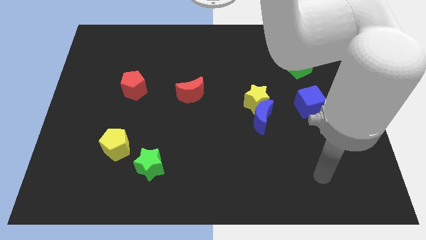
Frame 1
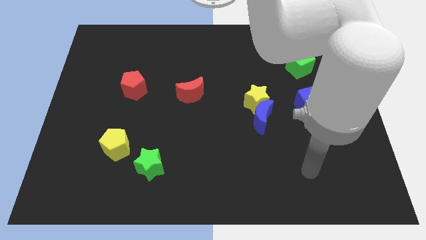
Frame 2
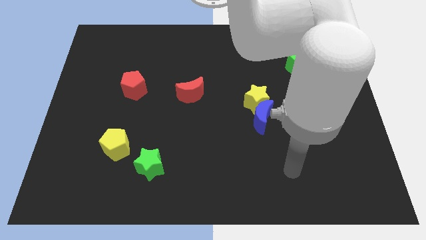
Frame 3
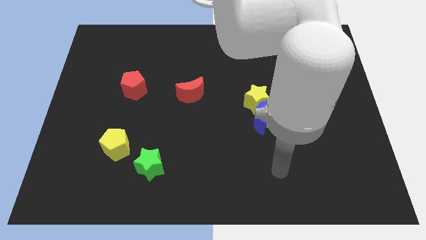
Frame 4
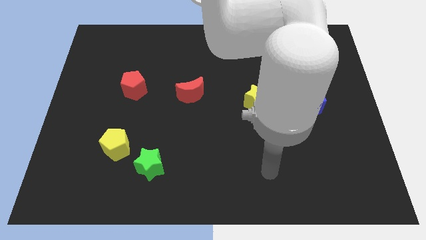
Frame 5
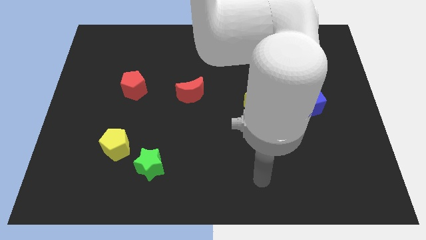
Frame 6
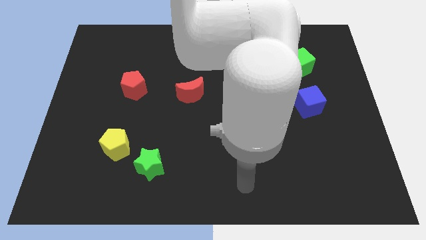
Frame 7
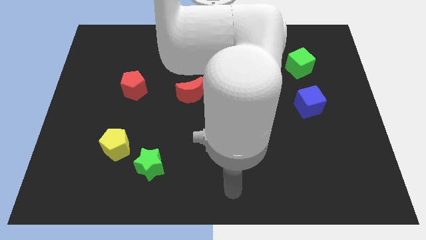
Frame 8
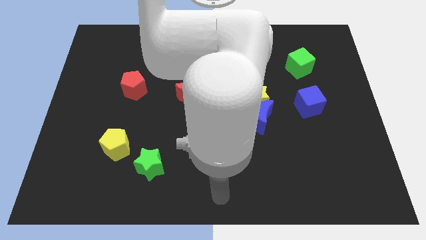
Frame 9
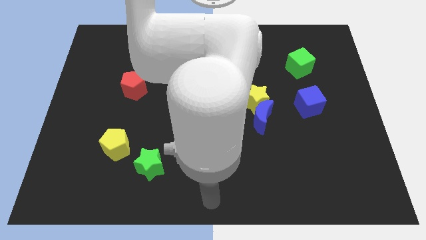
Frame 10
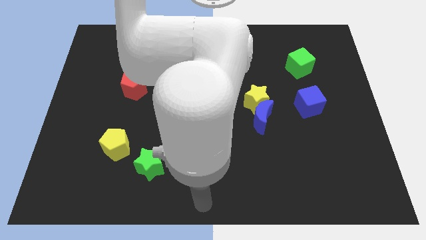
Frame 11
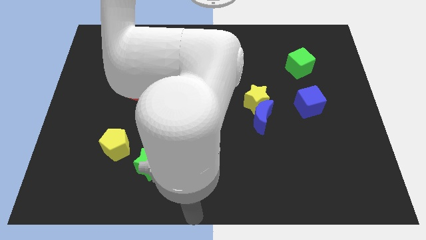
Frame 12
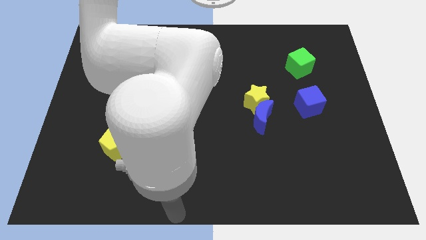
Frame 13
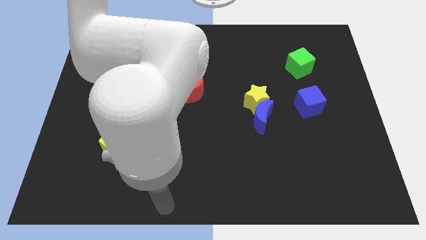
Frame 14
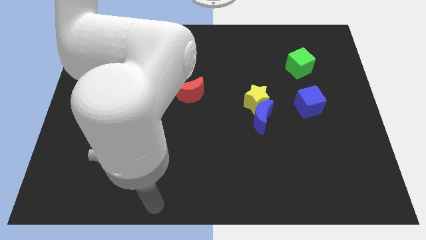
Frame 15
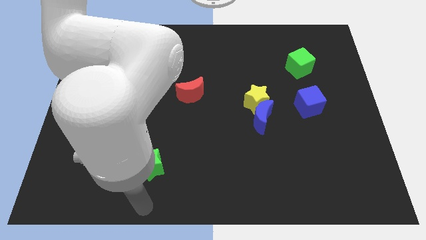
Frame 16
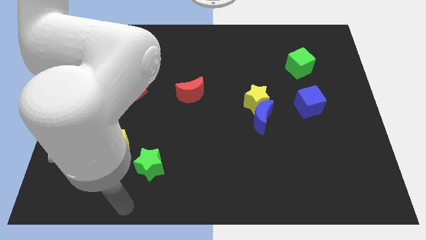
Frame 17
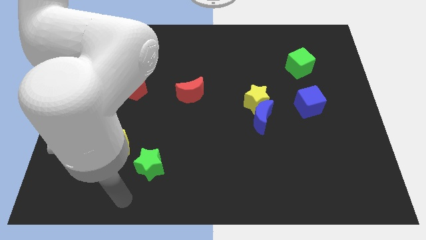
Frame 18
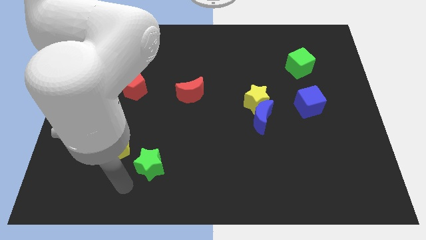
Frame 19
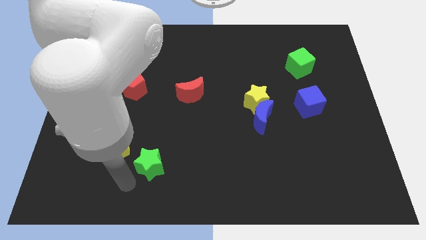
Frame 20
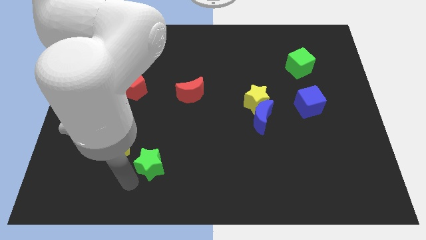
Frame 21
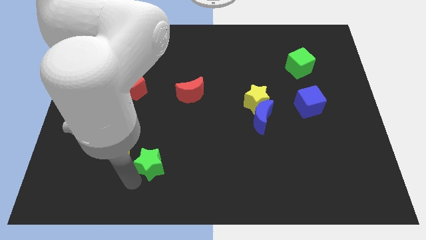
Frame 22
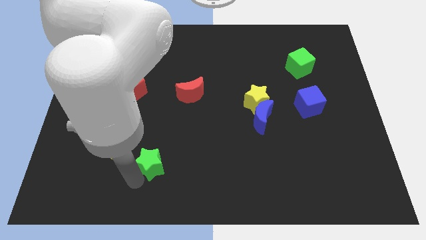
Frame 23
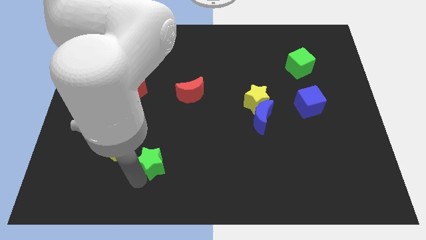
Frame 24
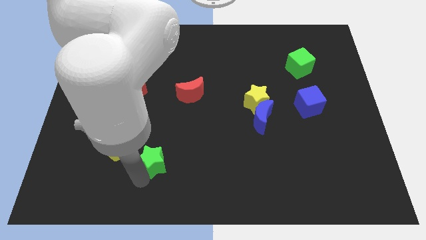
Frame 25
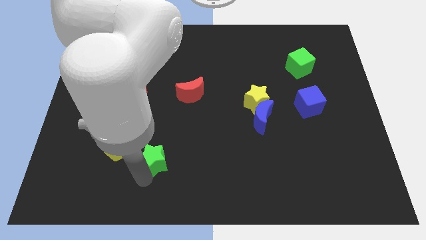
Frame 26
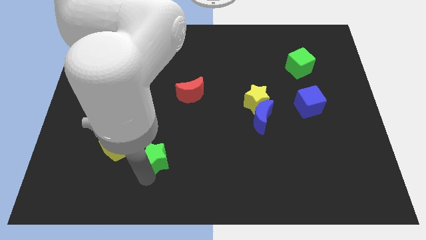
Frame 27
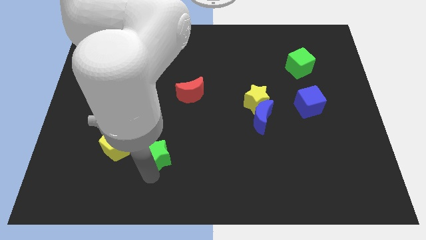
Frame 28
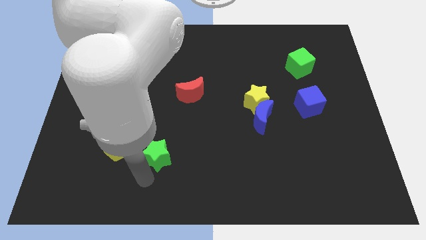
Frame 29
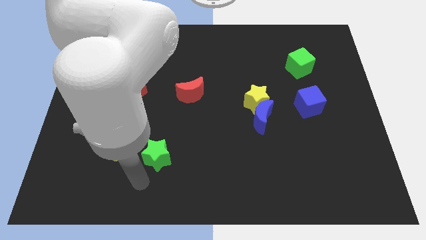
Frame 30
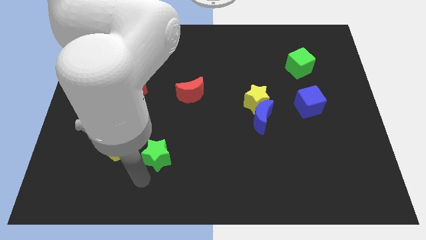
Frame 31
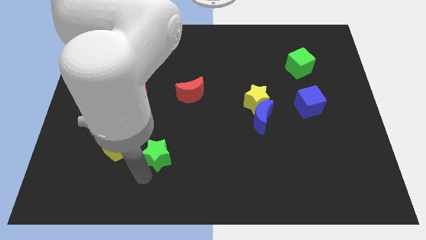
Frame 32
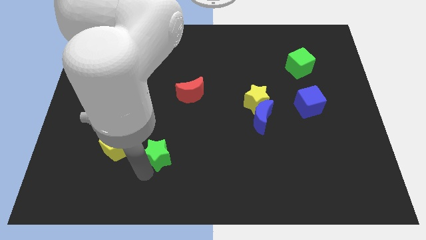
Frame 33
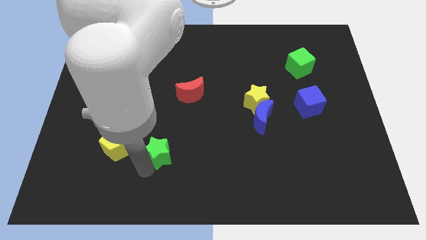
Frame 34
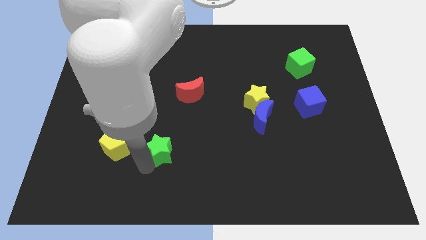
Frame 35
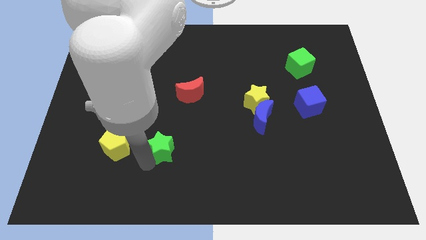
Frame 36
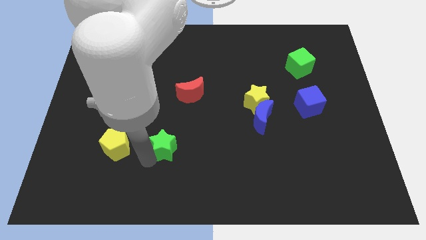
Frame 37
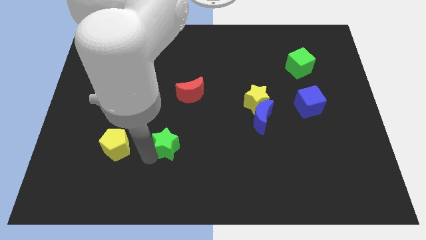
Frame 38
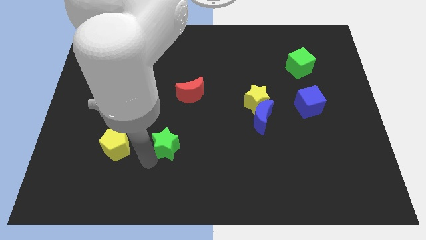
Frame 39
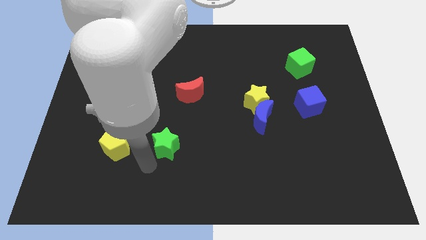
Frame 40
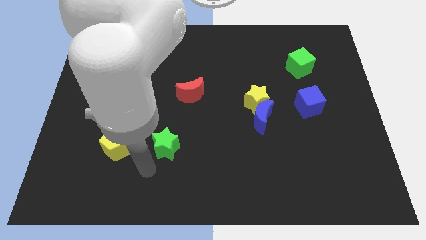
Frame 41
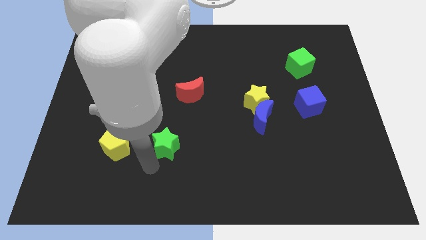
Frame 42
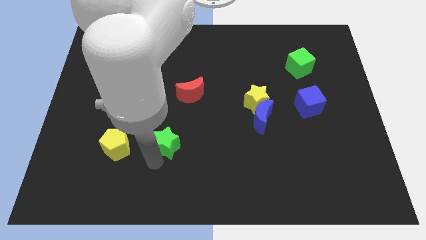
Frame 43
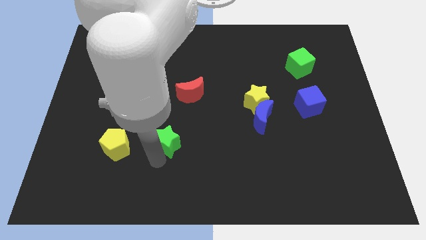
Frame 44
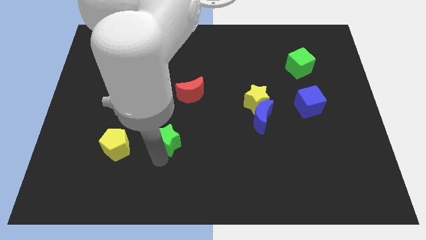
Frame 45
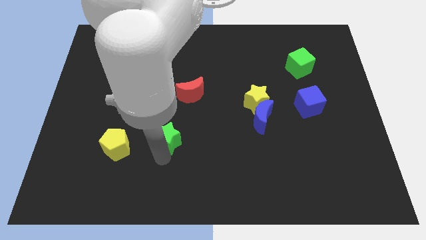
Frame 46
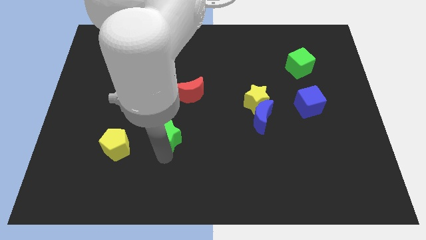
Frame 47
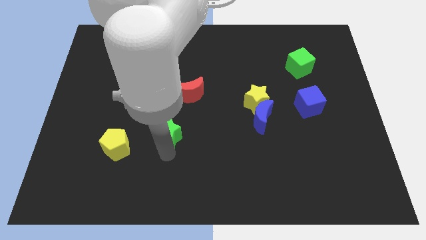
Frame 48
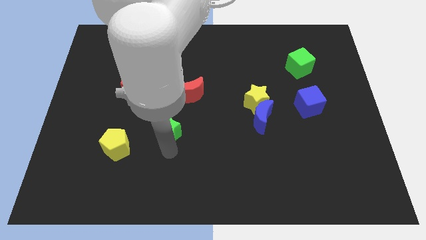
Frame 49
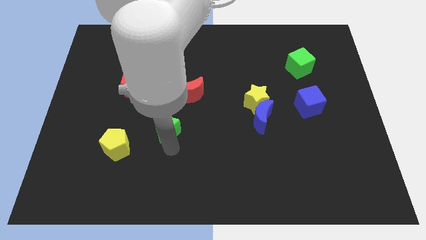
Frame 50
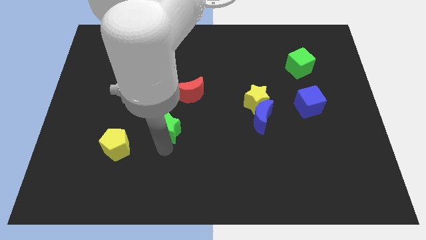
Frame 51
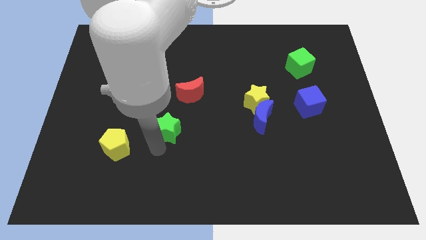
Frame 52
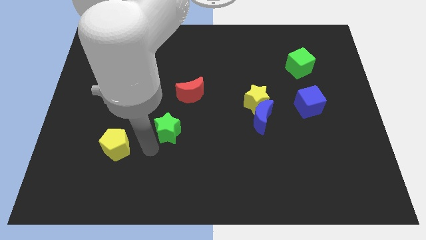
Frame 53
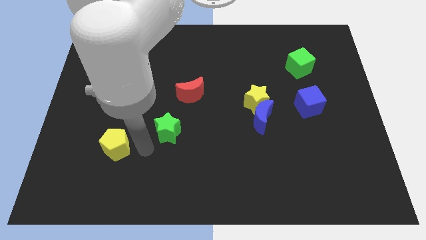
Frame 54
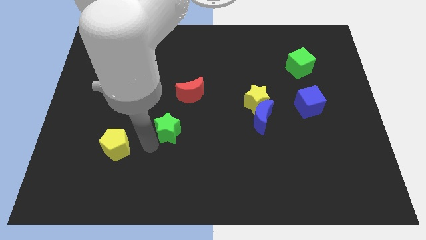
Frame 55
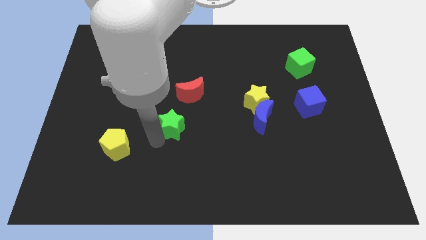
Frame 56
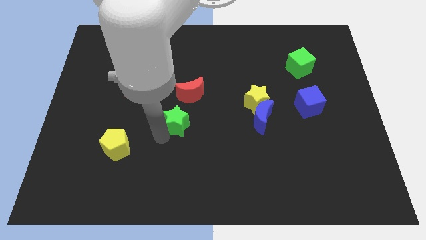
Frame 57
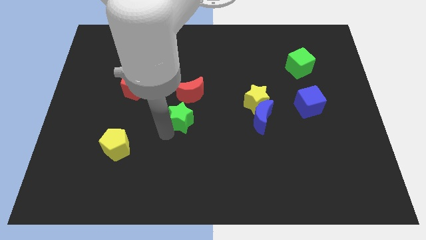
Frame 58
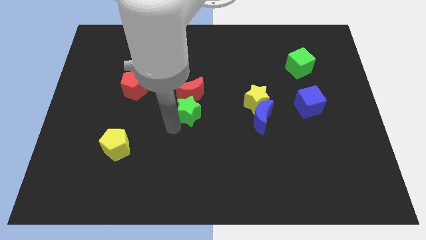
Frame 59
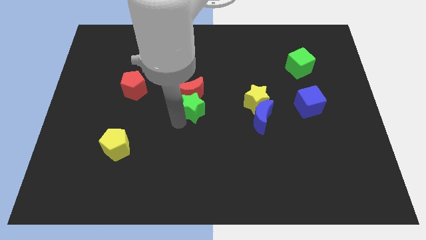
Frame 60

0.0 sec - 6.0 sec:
push the green star to the left side of the yellow star
